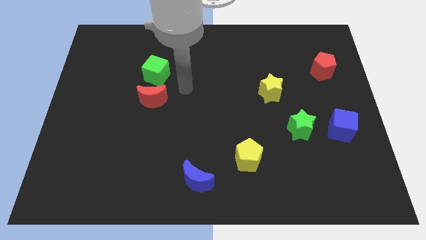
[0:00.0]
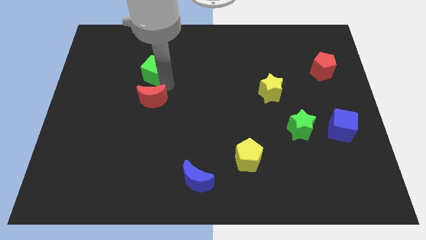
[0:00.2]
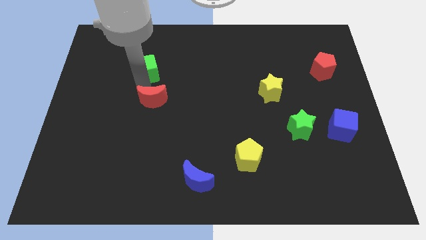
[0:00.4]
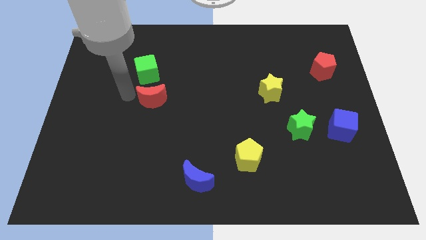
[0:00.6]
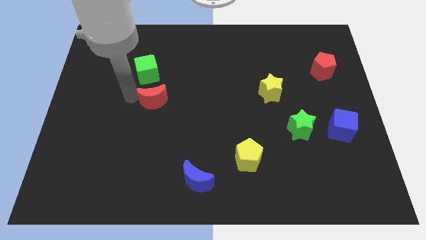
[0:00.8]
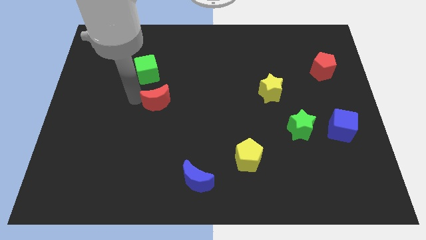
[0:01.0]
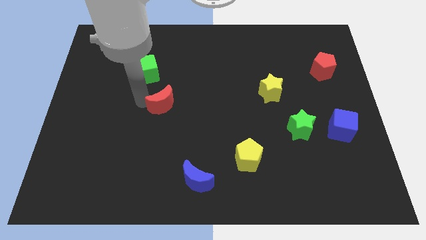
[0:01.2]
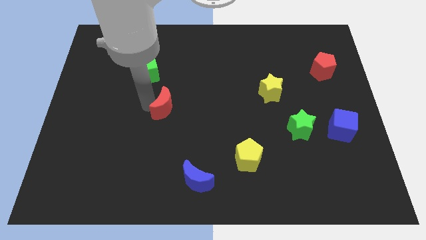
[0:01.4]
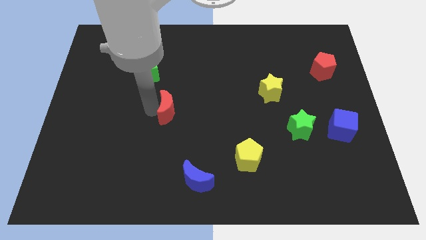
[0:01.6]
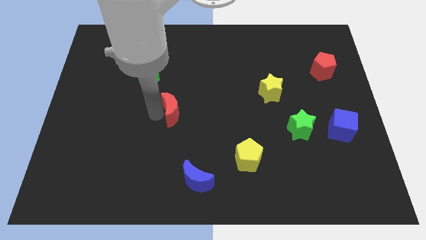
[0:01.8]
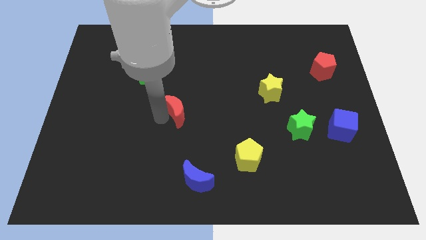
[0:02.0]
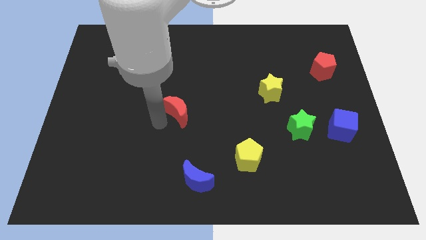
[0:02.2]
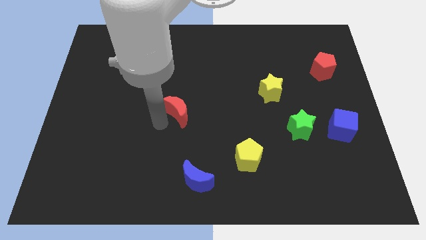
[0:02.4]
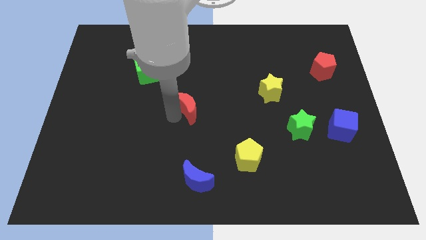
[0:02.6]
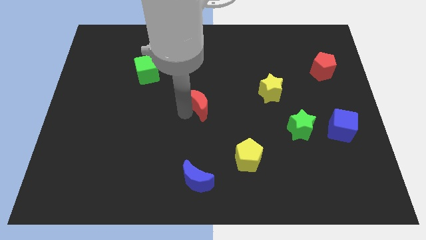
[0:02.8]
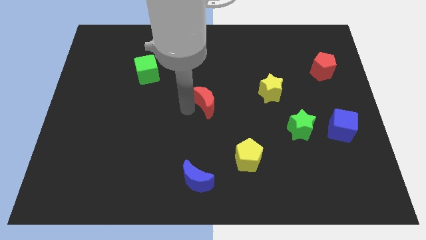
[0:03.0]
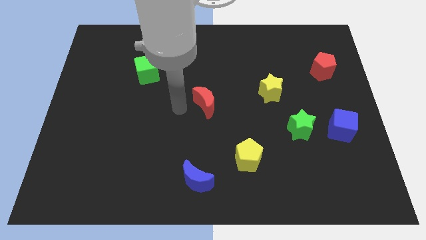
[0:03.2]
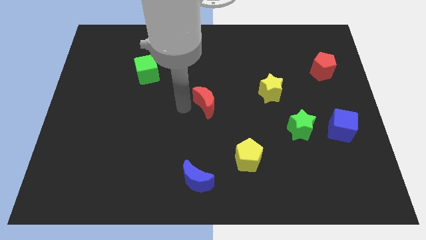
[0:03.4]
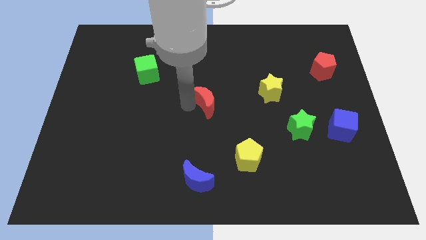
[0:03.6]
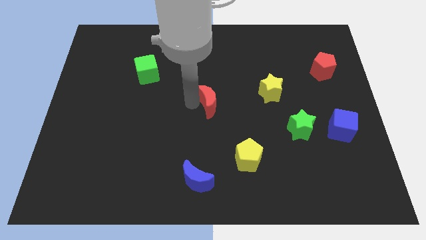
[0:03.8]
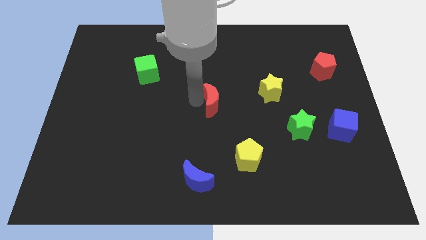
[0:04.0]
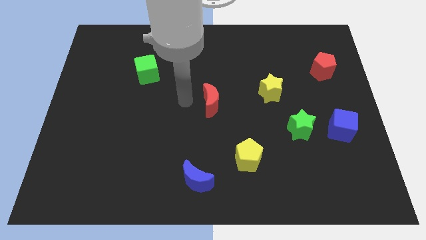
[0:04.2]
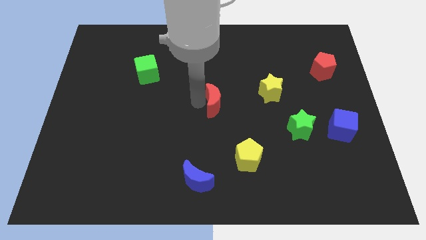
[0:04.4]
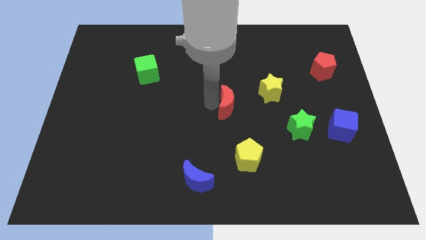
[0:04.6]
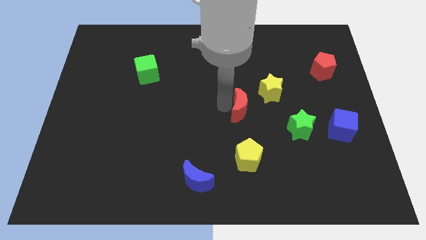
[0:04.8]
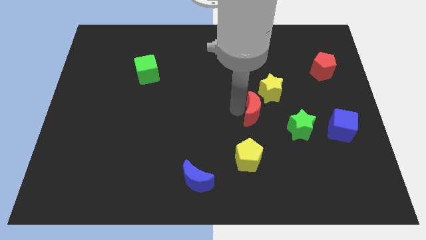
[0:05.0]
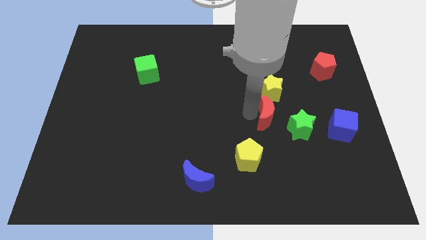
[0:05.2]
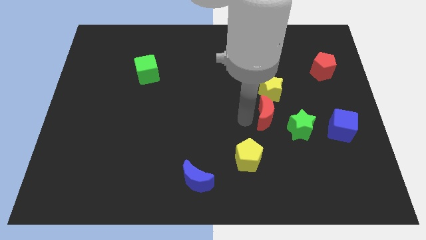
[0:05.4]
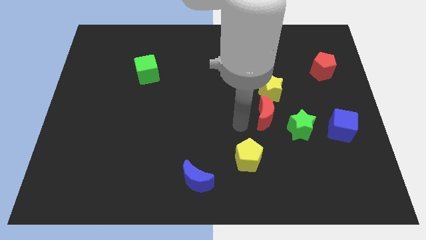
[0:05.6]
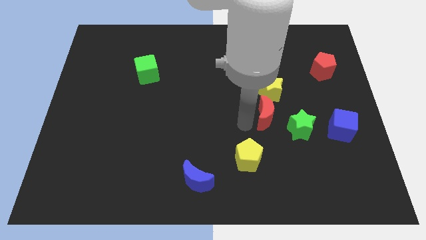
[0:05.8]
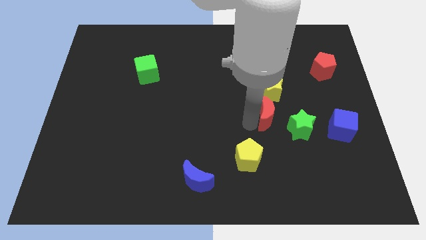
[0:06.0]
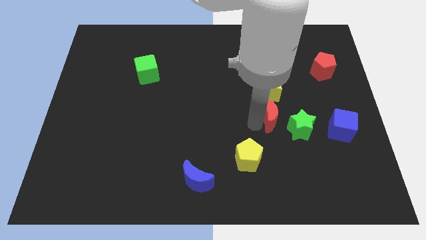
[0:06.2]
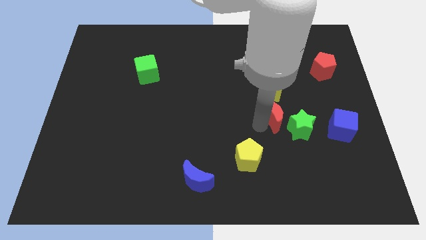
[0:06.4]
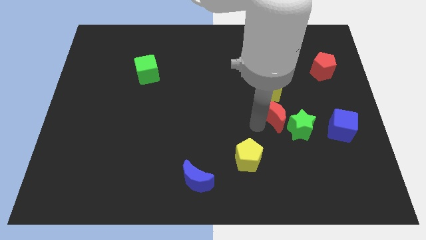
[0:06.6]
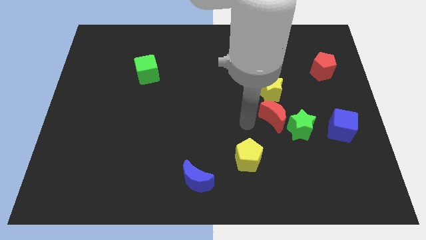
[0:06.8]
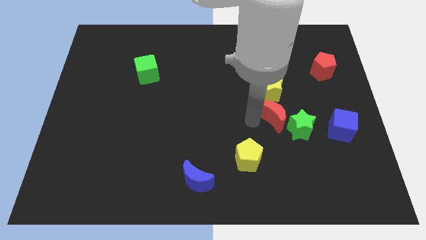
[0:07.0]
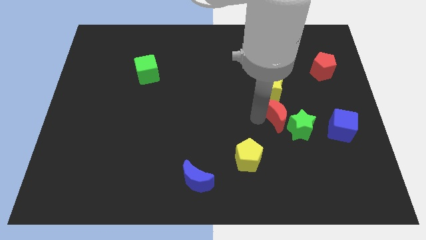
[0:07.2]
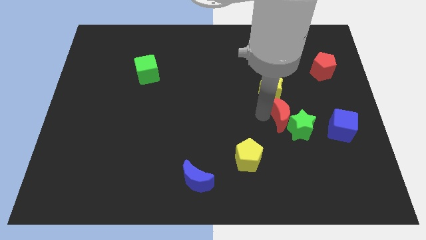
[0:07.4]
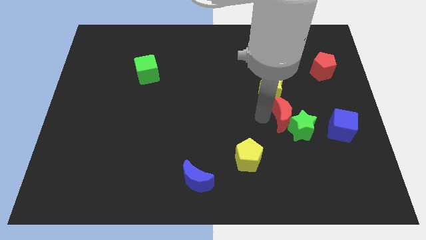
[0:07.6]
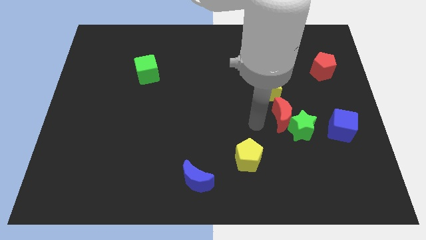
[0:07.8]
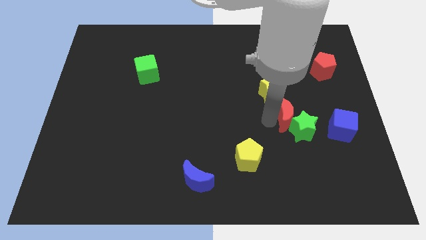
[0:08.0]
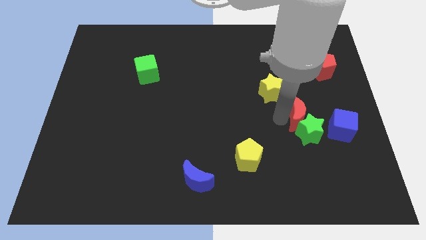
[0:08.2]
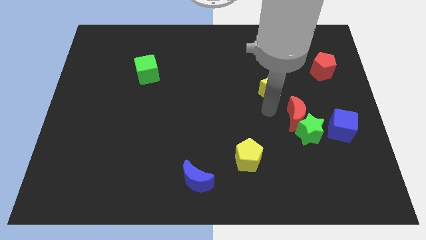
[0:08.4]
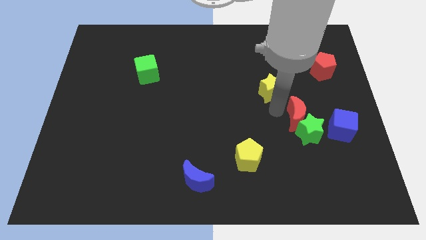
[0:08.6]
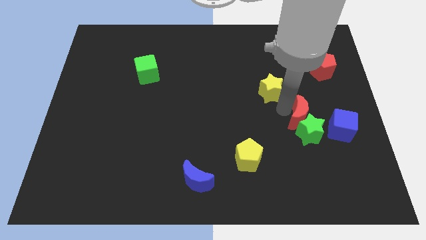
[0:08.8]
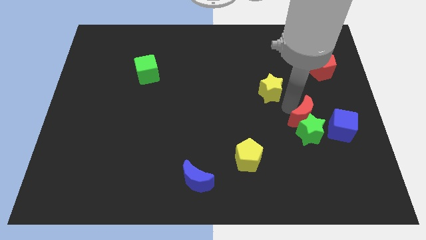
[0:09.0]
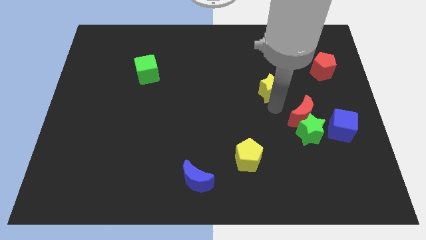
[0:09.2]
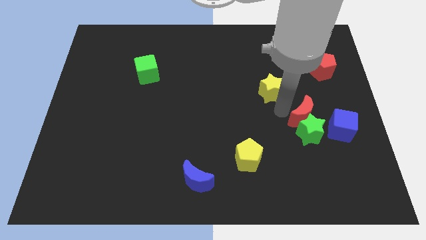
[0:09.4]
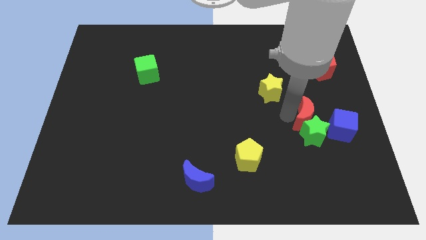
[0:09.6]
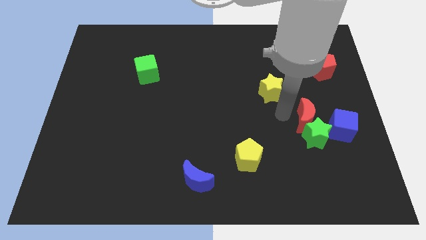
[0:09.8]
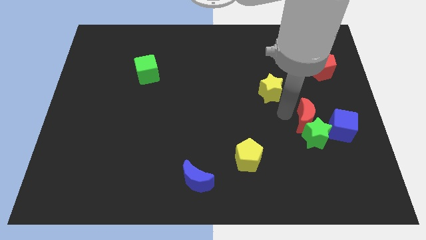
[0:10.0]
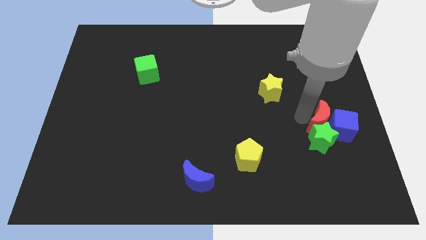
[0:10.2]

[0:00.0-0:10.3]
push the red moon close to the blue cube

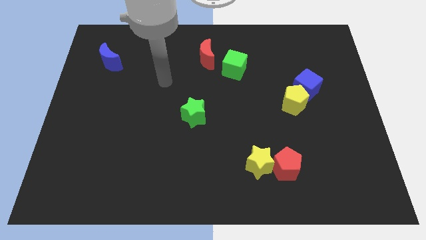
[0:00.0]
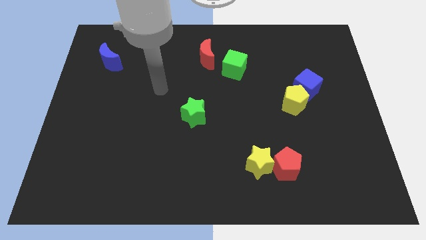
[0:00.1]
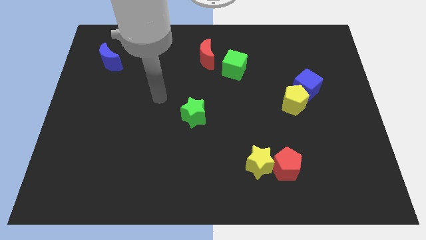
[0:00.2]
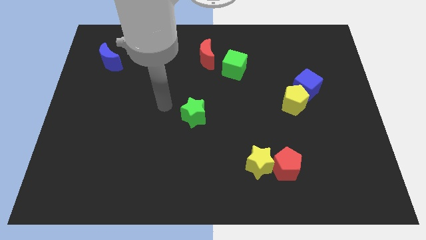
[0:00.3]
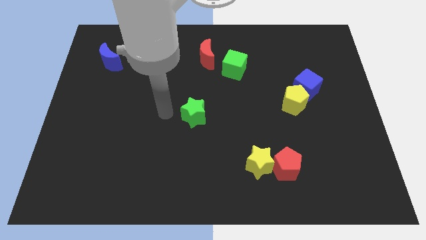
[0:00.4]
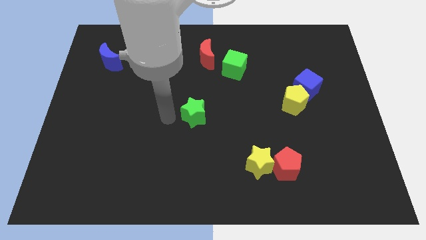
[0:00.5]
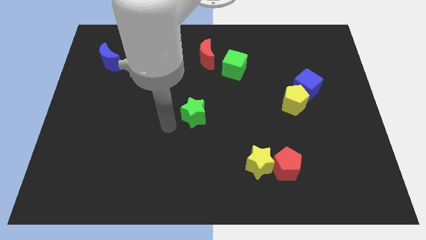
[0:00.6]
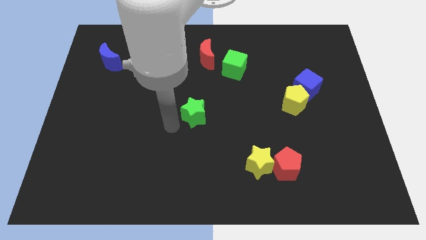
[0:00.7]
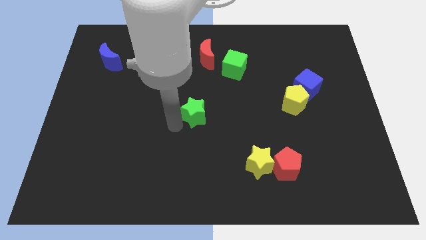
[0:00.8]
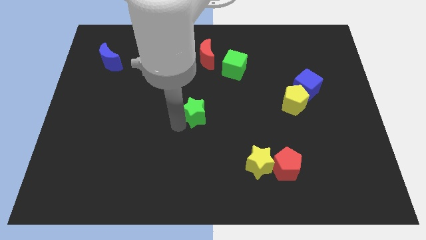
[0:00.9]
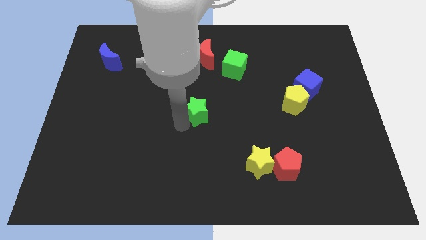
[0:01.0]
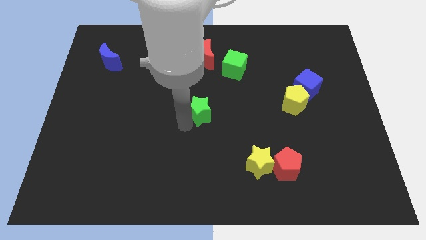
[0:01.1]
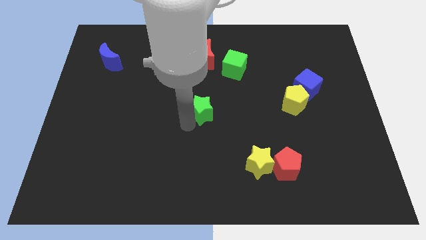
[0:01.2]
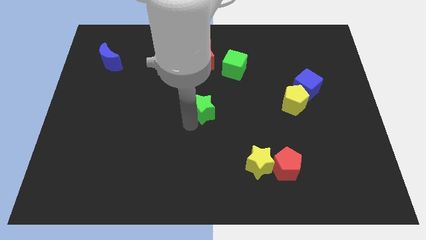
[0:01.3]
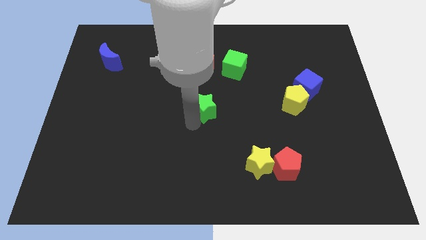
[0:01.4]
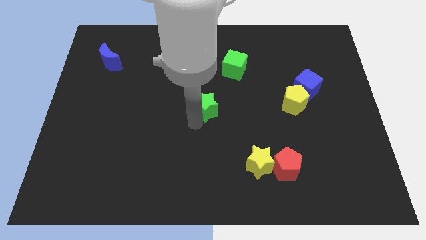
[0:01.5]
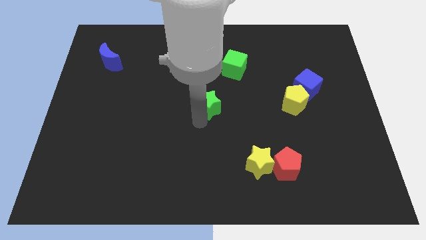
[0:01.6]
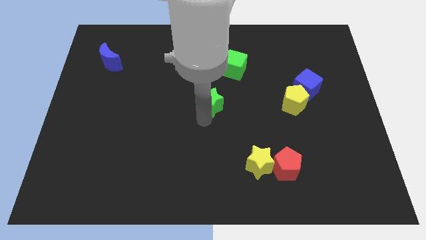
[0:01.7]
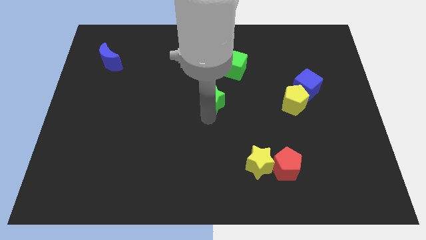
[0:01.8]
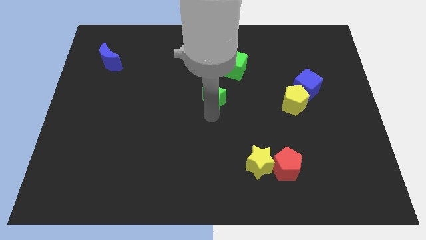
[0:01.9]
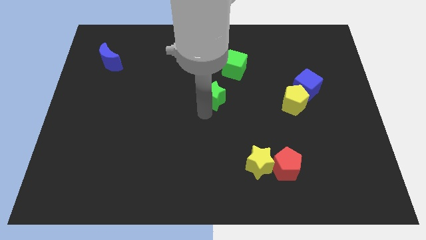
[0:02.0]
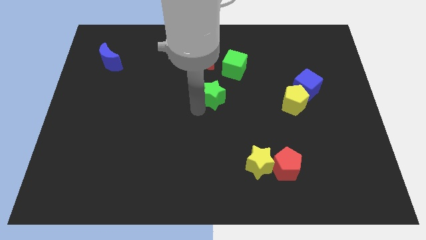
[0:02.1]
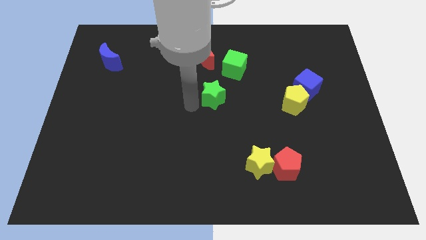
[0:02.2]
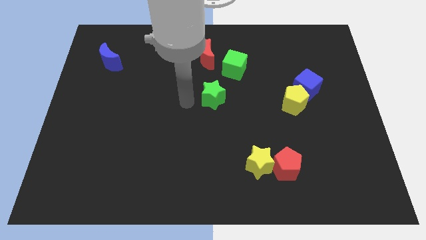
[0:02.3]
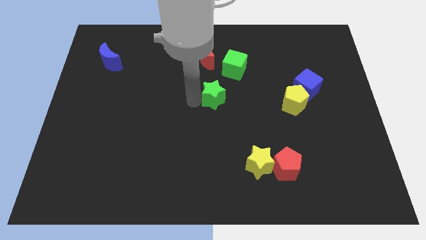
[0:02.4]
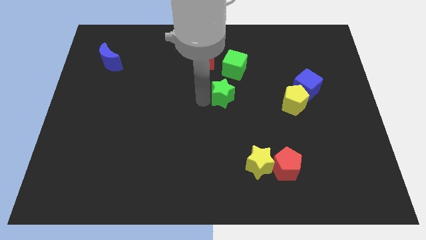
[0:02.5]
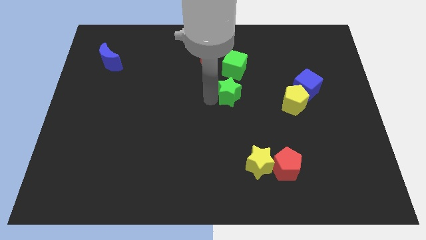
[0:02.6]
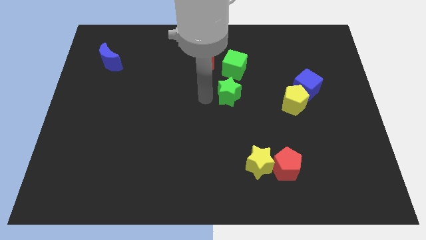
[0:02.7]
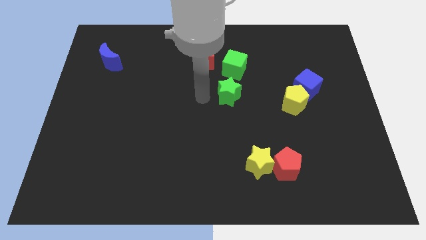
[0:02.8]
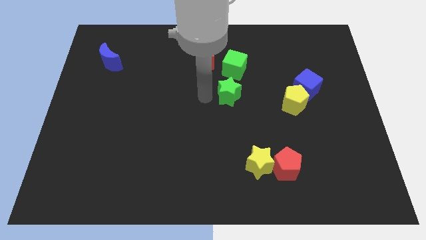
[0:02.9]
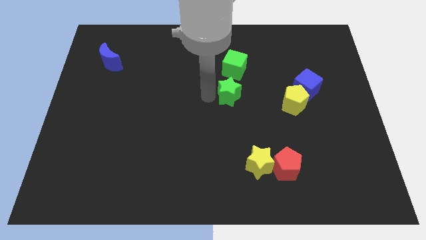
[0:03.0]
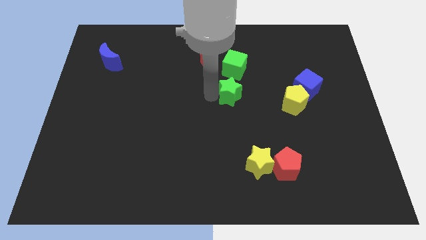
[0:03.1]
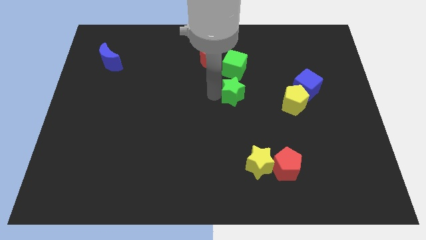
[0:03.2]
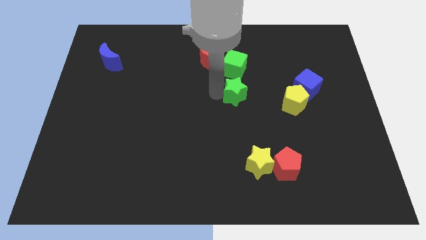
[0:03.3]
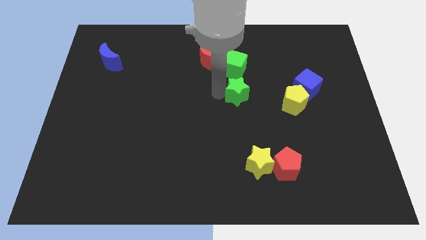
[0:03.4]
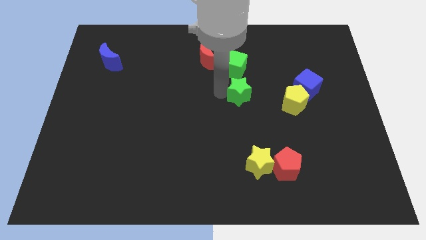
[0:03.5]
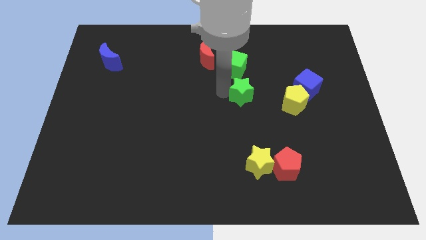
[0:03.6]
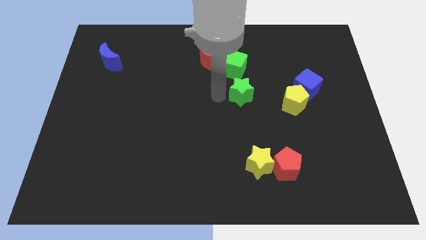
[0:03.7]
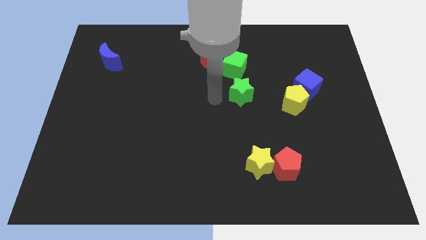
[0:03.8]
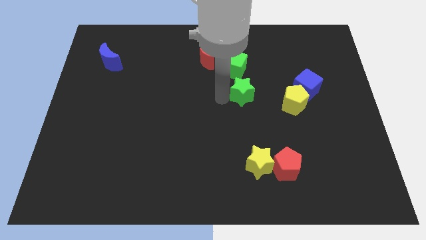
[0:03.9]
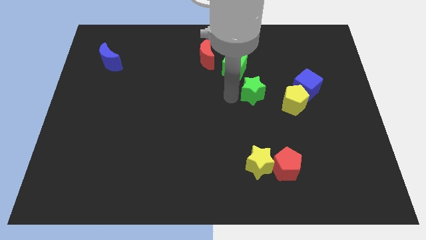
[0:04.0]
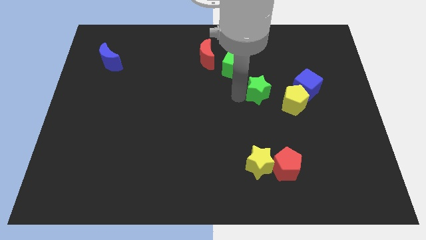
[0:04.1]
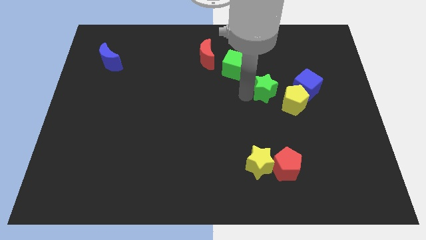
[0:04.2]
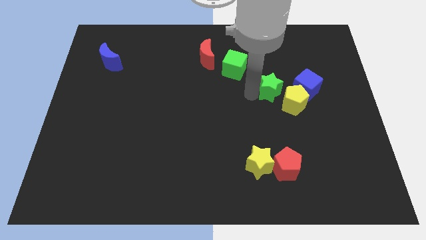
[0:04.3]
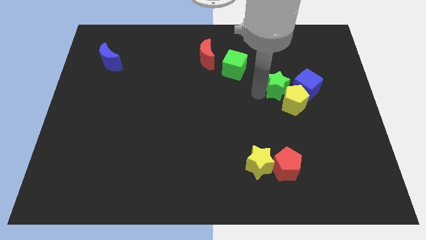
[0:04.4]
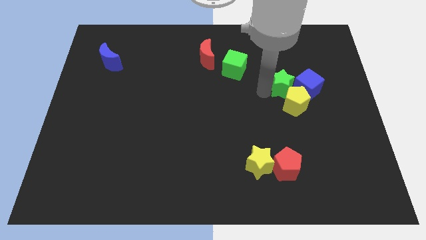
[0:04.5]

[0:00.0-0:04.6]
push the green star towards the blue cube
